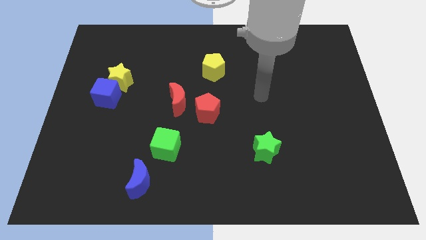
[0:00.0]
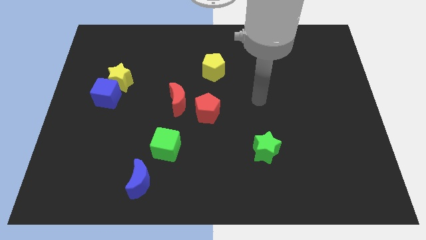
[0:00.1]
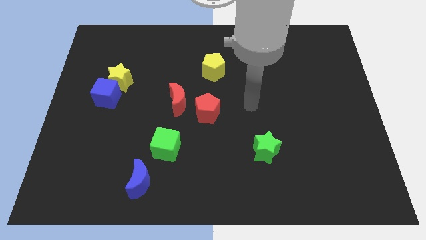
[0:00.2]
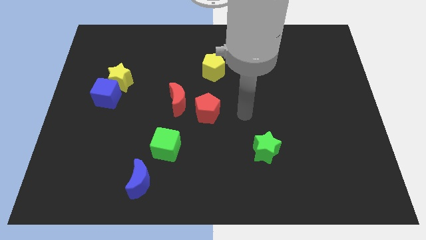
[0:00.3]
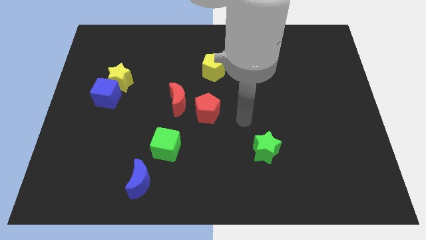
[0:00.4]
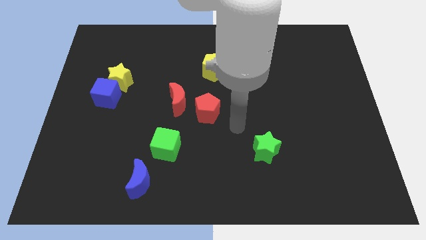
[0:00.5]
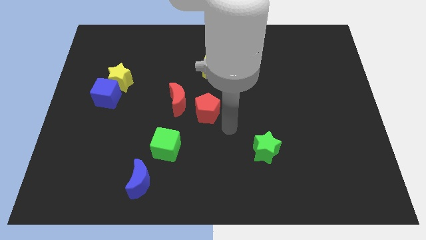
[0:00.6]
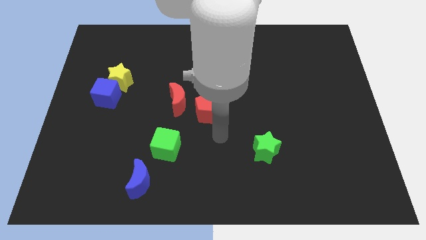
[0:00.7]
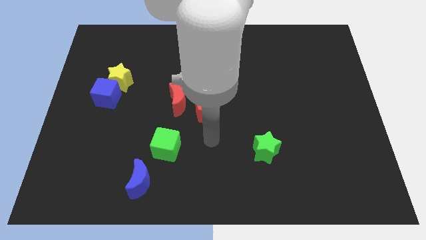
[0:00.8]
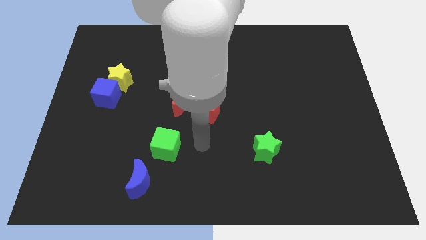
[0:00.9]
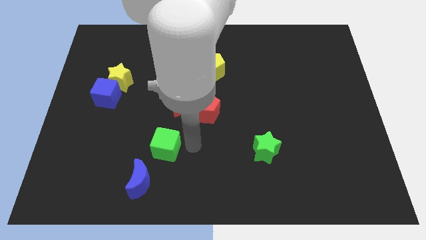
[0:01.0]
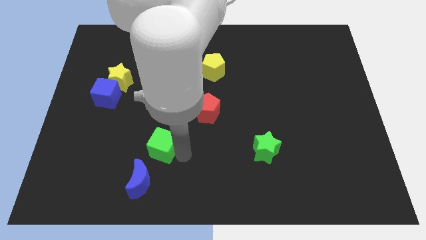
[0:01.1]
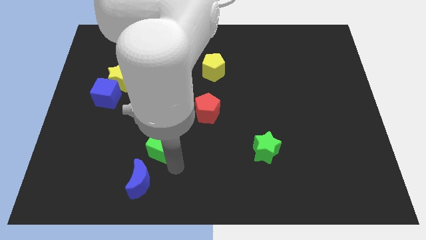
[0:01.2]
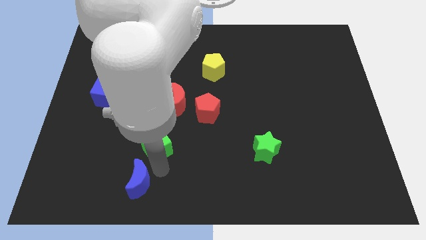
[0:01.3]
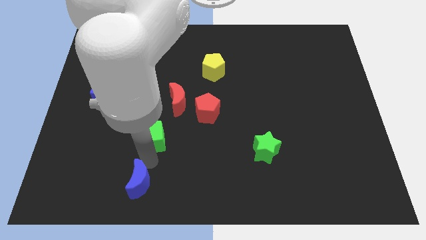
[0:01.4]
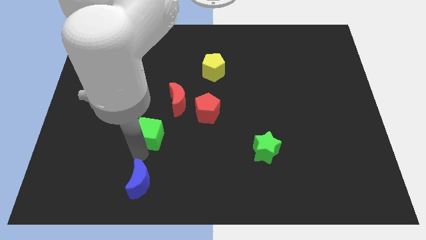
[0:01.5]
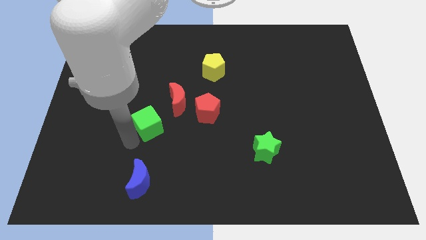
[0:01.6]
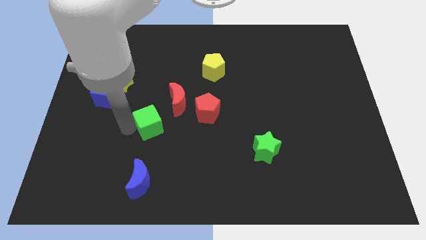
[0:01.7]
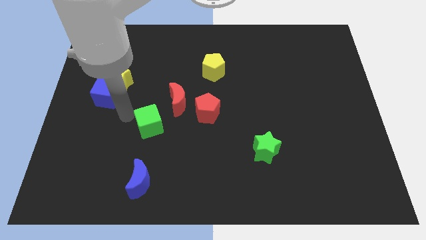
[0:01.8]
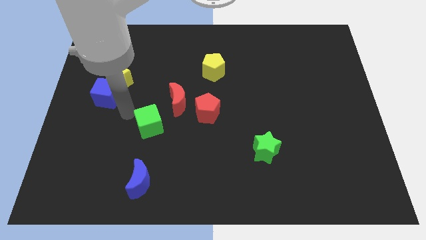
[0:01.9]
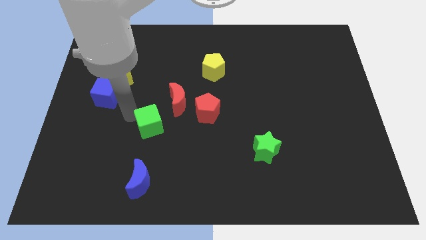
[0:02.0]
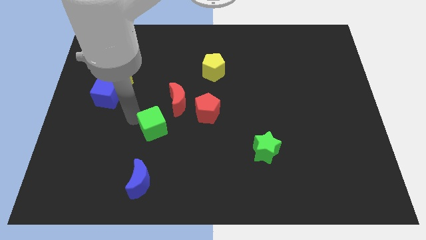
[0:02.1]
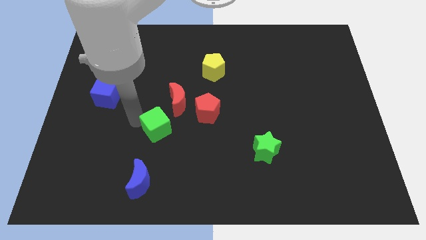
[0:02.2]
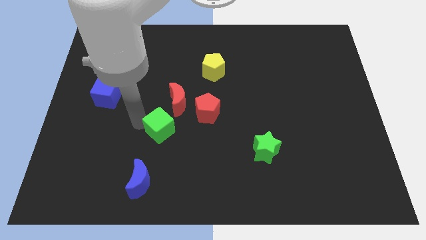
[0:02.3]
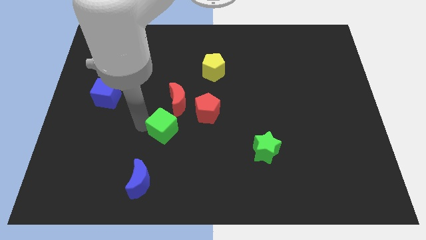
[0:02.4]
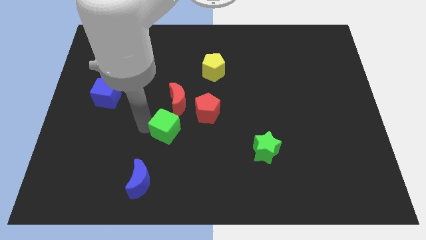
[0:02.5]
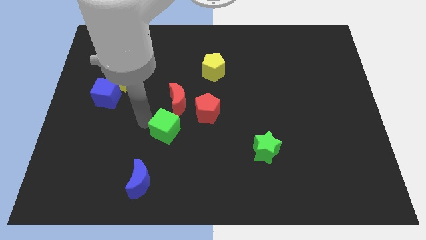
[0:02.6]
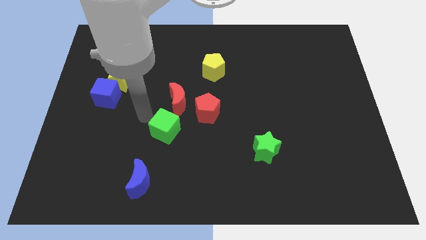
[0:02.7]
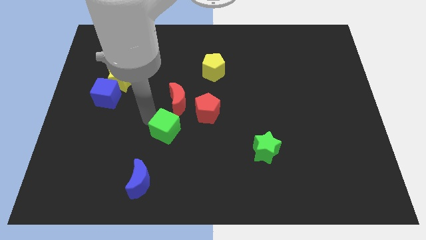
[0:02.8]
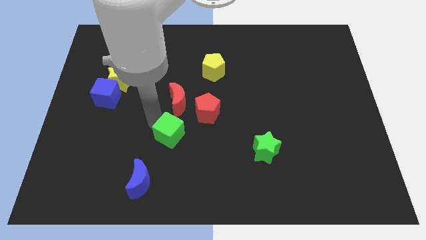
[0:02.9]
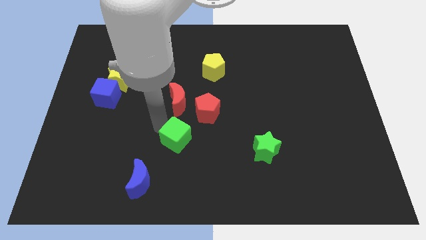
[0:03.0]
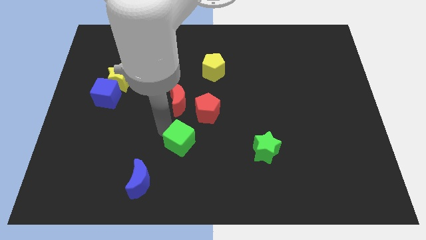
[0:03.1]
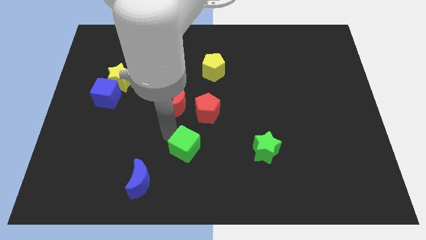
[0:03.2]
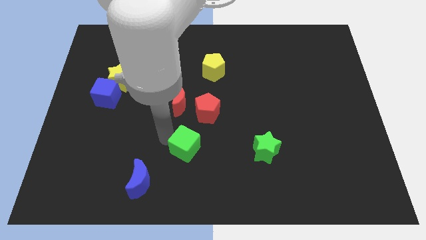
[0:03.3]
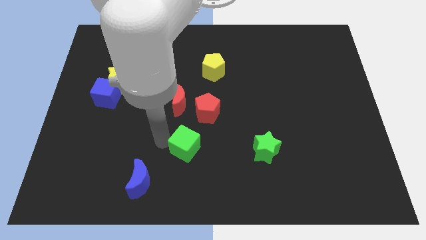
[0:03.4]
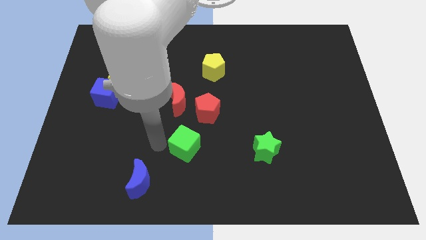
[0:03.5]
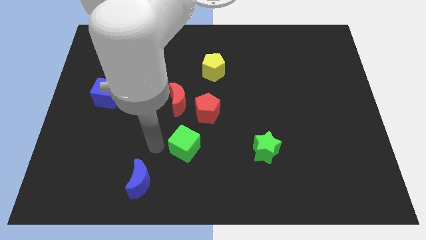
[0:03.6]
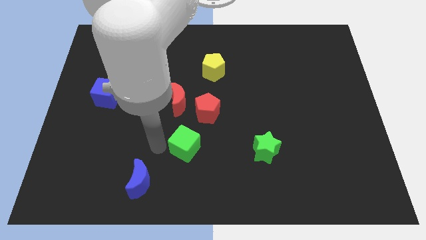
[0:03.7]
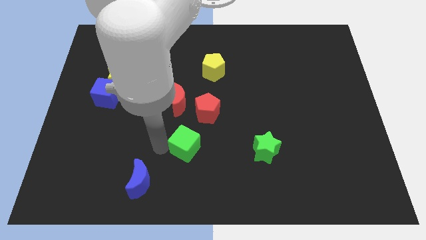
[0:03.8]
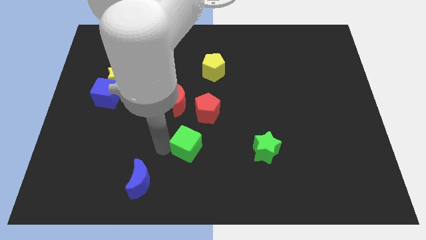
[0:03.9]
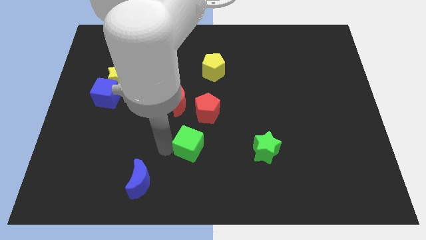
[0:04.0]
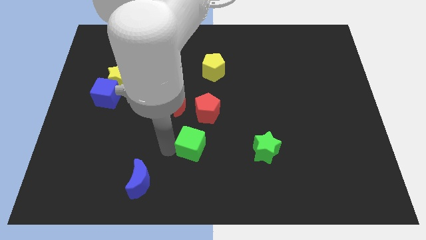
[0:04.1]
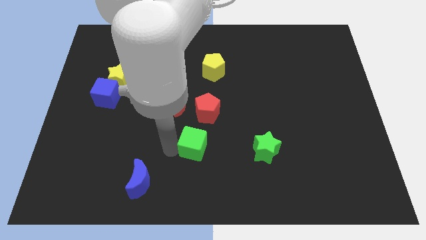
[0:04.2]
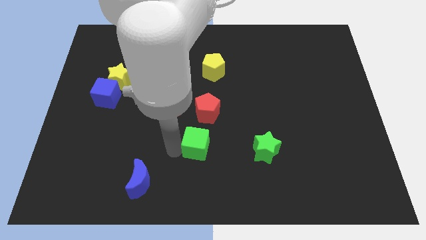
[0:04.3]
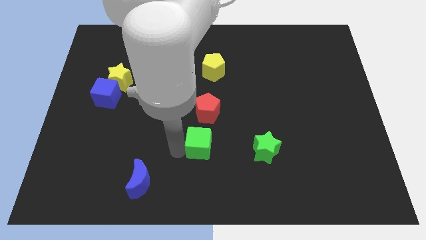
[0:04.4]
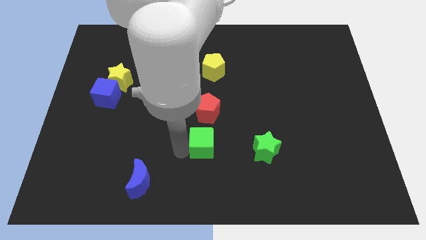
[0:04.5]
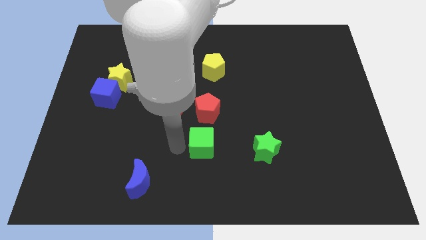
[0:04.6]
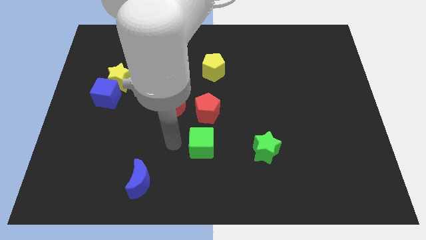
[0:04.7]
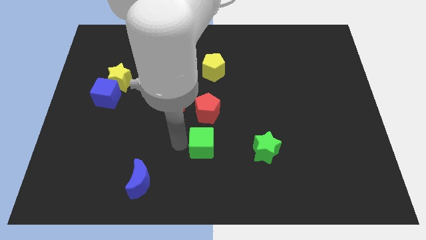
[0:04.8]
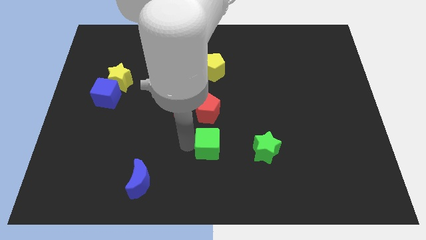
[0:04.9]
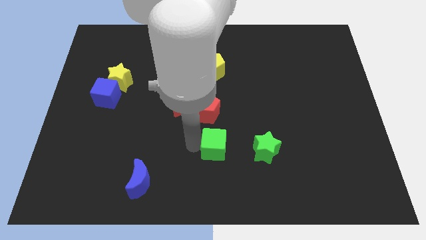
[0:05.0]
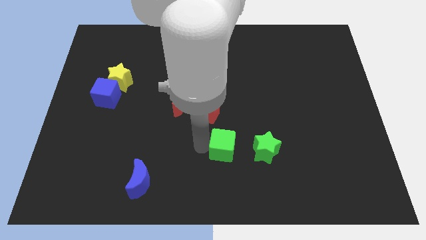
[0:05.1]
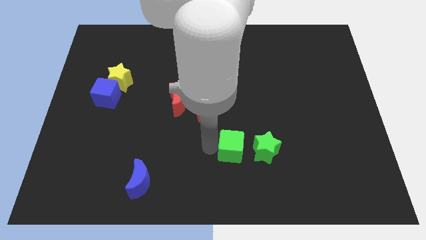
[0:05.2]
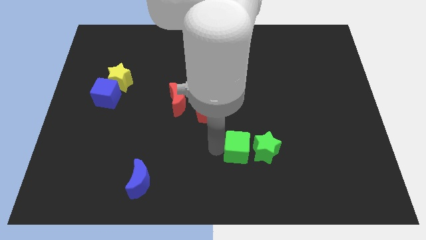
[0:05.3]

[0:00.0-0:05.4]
move the green cube towards the green star

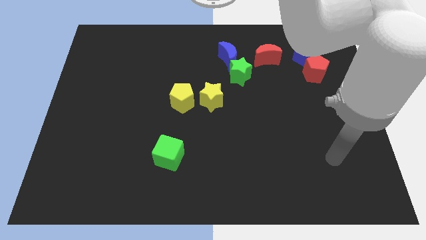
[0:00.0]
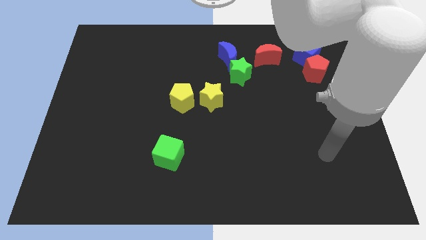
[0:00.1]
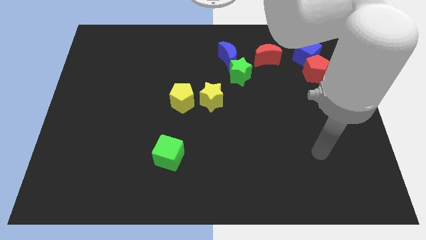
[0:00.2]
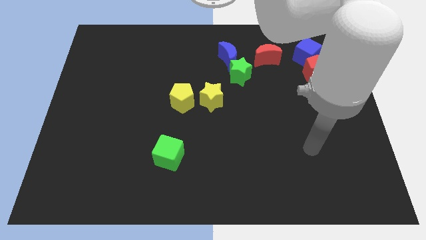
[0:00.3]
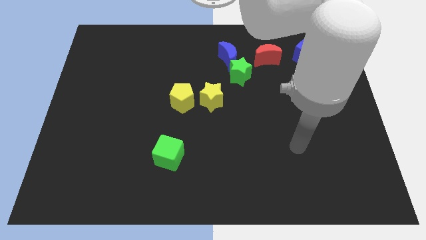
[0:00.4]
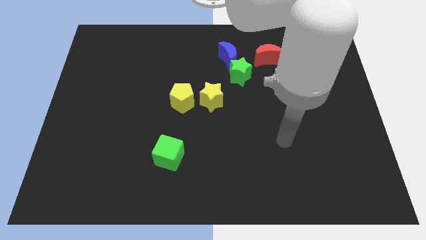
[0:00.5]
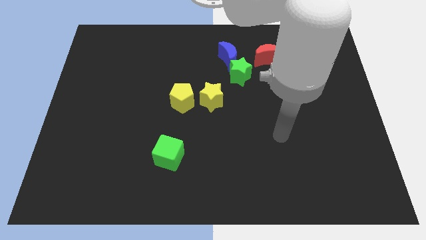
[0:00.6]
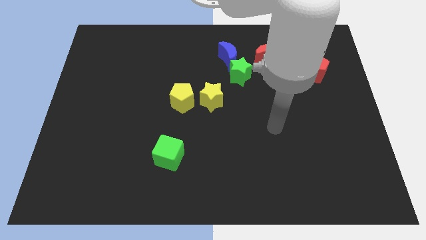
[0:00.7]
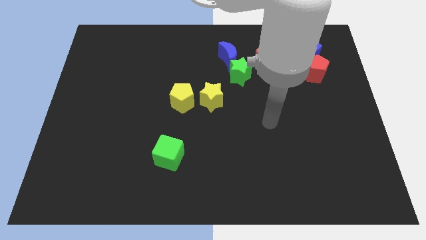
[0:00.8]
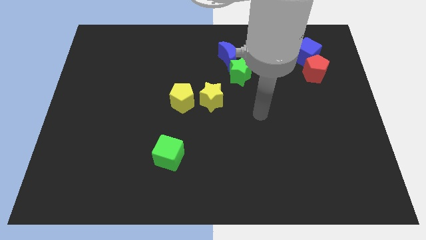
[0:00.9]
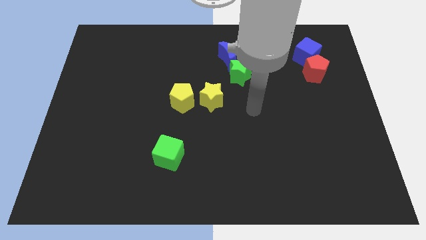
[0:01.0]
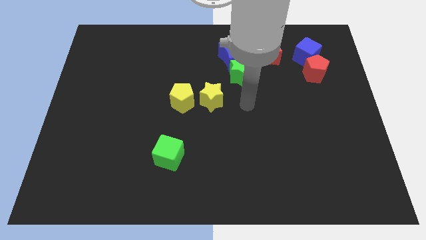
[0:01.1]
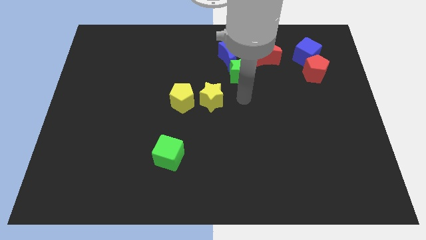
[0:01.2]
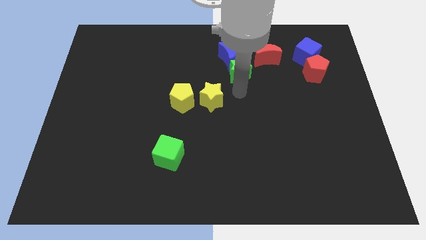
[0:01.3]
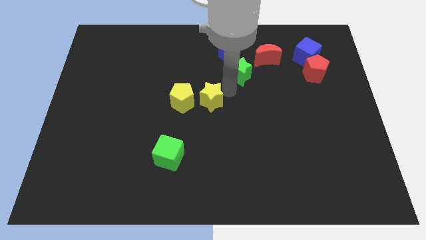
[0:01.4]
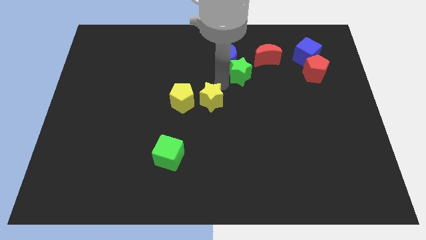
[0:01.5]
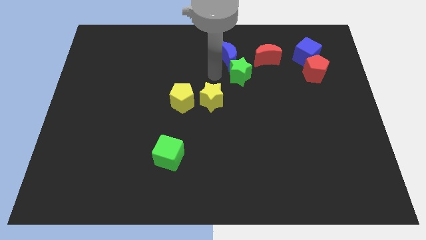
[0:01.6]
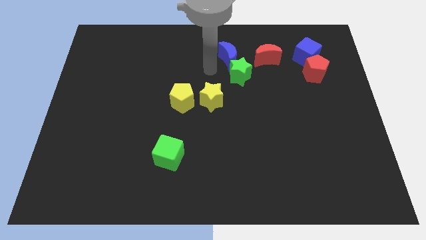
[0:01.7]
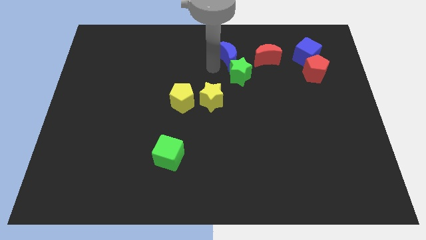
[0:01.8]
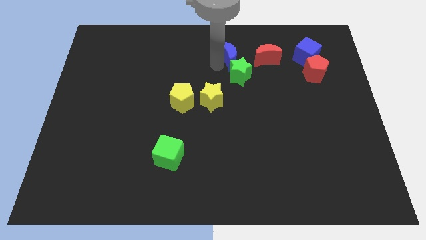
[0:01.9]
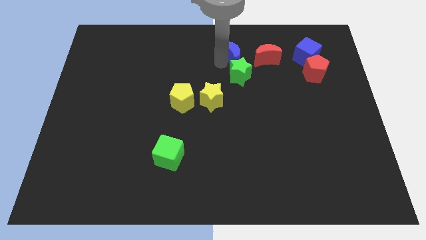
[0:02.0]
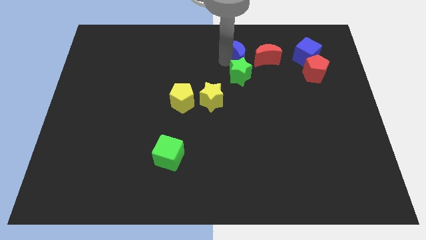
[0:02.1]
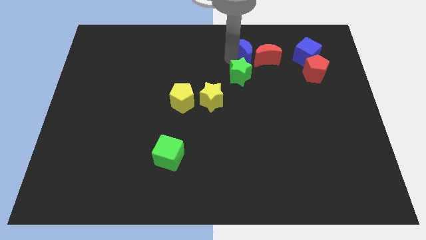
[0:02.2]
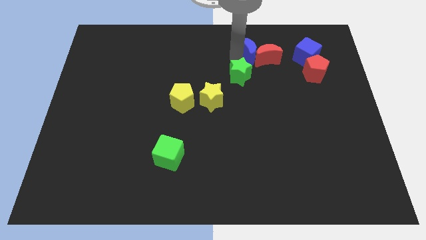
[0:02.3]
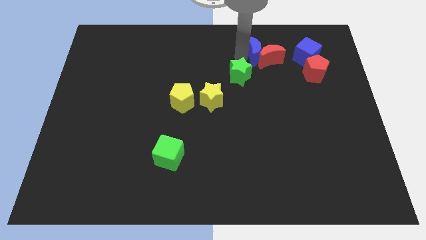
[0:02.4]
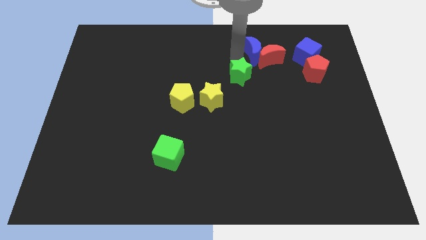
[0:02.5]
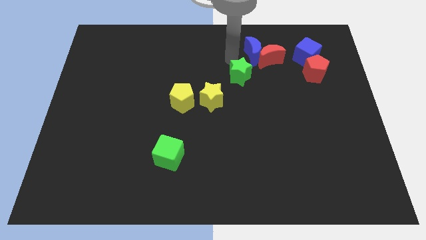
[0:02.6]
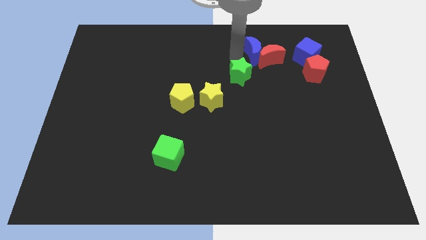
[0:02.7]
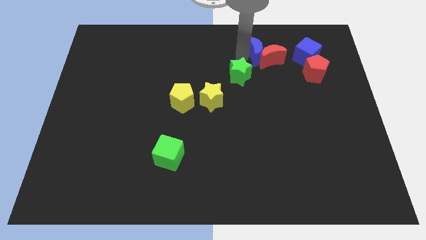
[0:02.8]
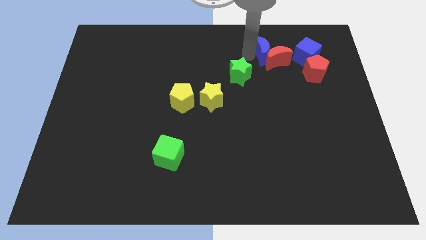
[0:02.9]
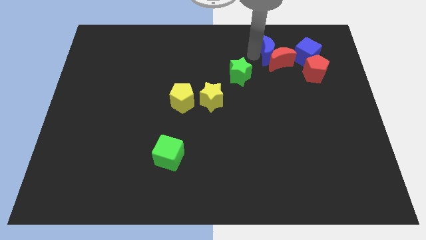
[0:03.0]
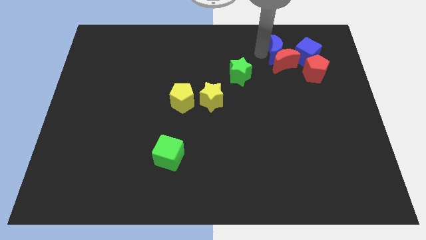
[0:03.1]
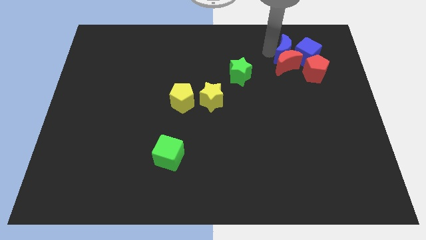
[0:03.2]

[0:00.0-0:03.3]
push the blue moon to the blue cube
